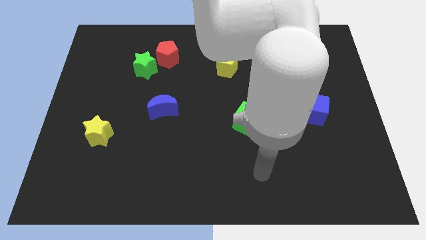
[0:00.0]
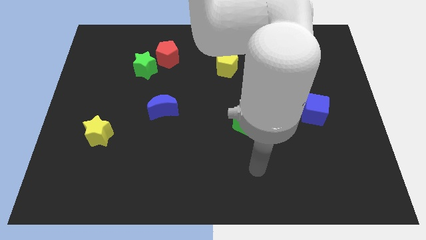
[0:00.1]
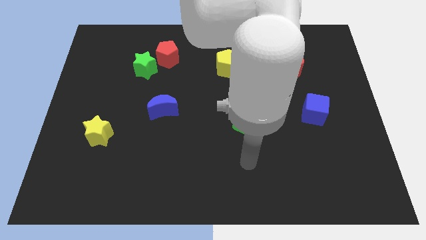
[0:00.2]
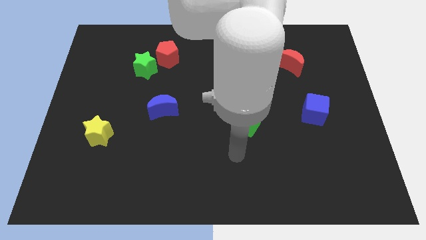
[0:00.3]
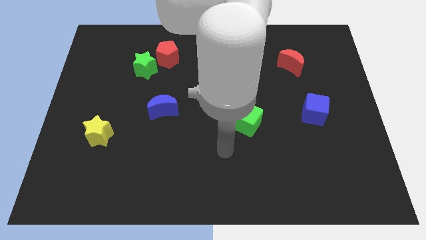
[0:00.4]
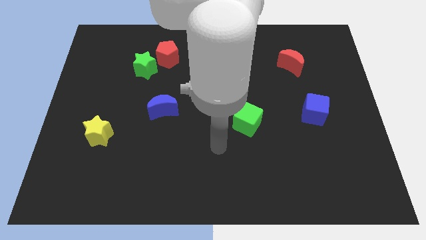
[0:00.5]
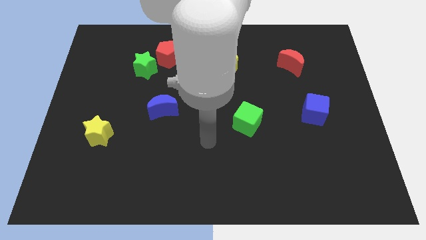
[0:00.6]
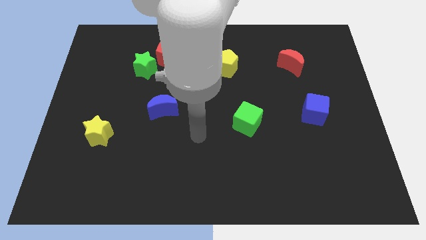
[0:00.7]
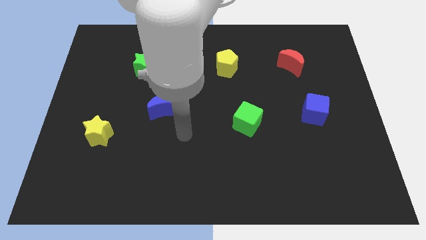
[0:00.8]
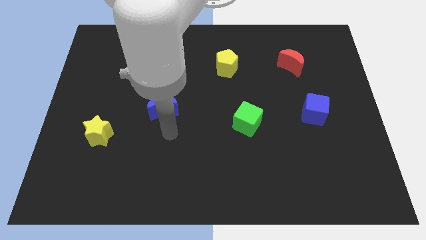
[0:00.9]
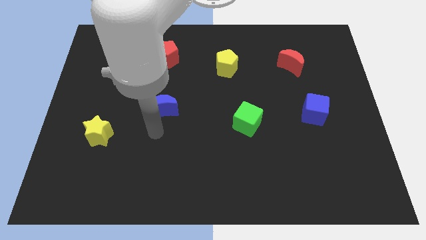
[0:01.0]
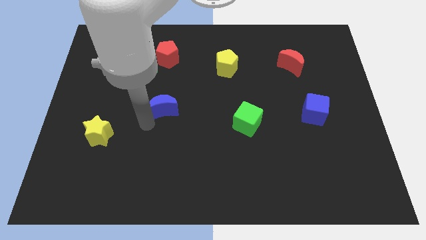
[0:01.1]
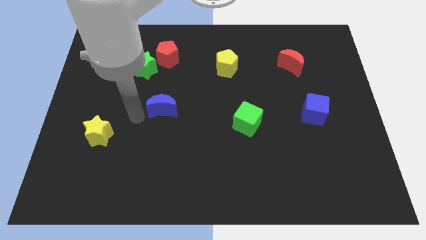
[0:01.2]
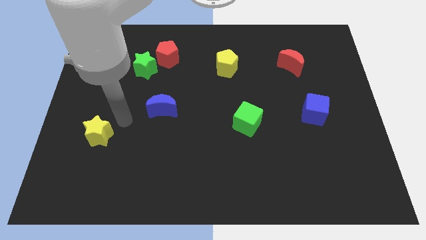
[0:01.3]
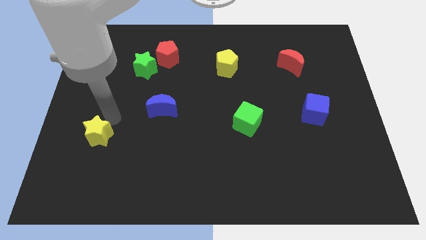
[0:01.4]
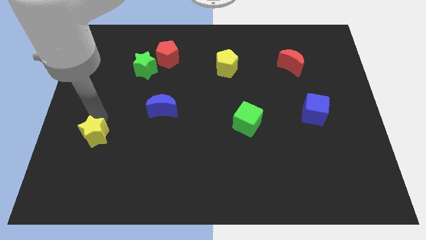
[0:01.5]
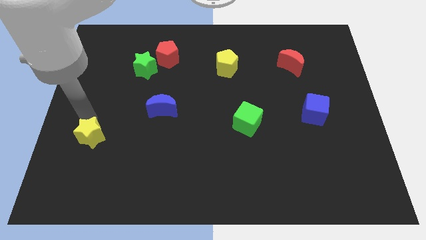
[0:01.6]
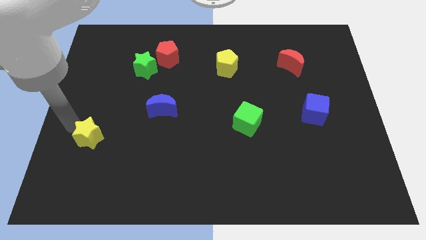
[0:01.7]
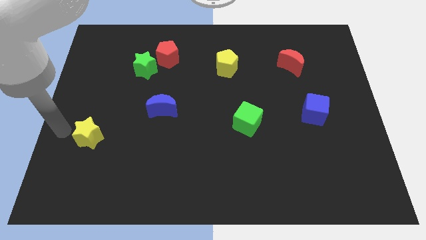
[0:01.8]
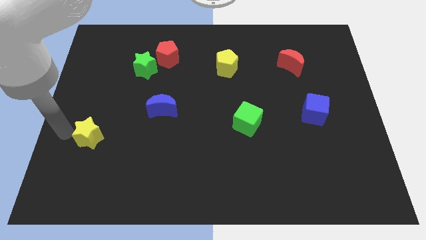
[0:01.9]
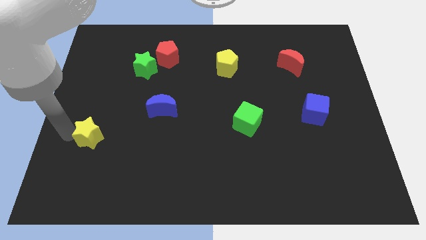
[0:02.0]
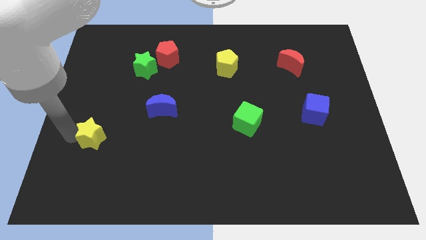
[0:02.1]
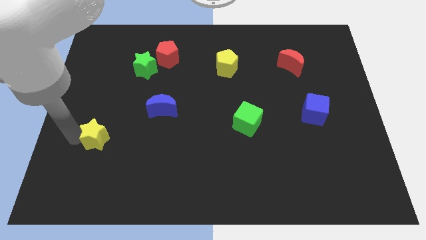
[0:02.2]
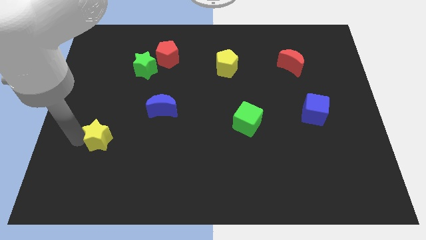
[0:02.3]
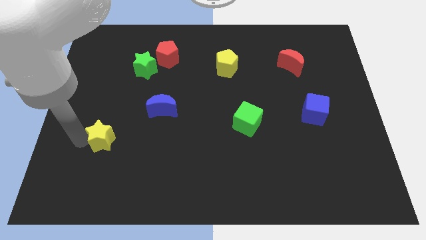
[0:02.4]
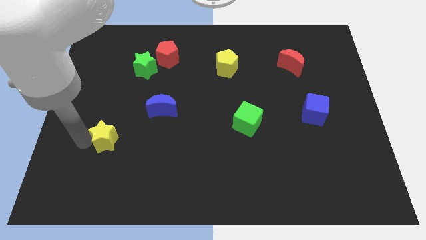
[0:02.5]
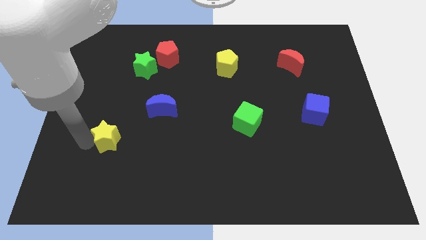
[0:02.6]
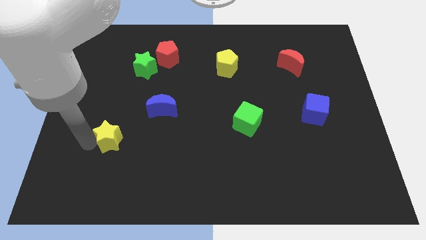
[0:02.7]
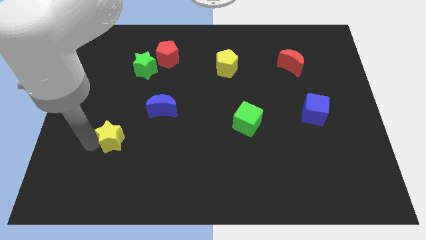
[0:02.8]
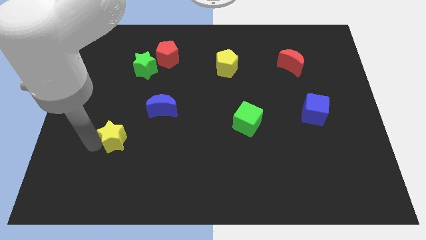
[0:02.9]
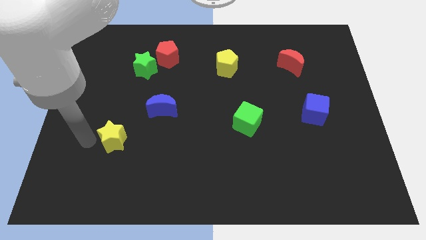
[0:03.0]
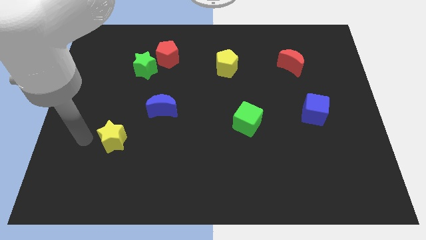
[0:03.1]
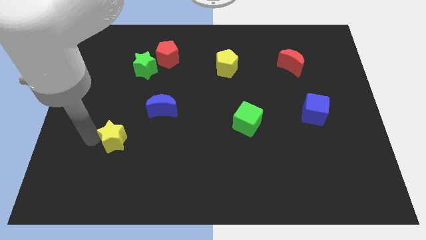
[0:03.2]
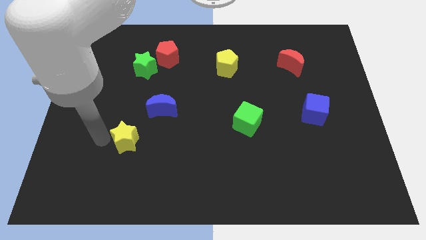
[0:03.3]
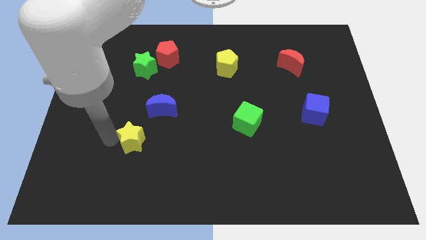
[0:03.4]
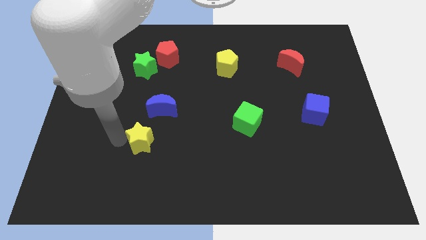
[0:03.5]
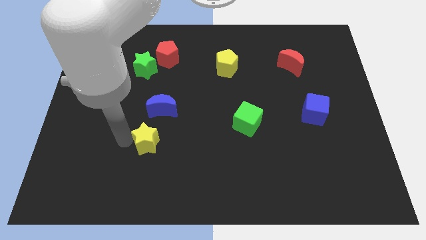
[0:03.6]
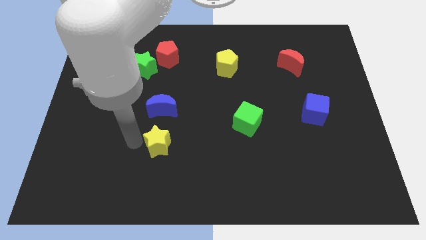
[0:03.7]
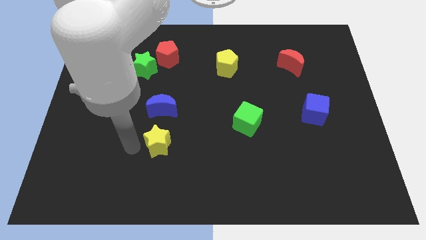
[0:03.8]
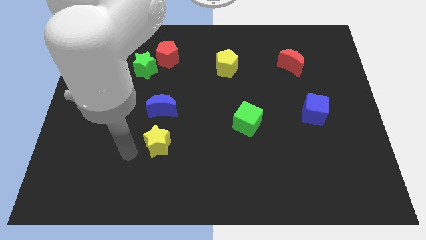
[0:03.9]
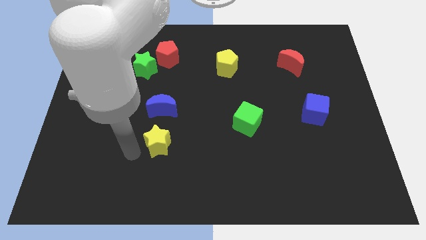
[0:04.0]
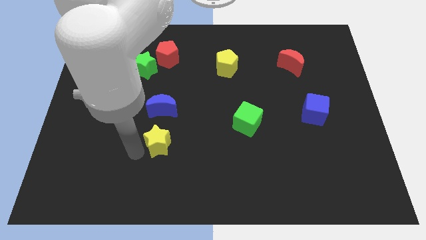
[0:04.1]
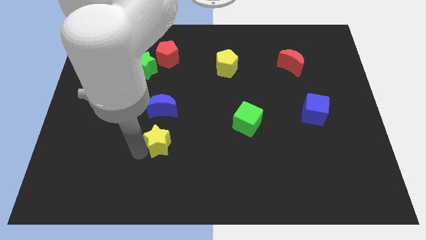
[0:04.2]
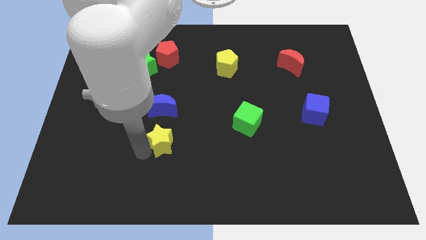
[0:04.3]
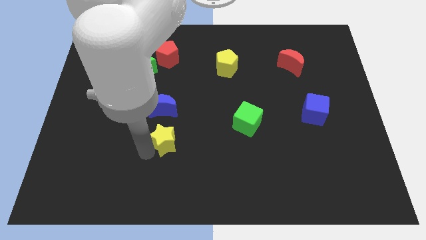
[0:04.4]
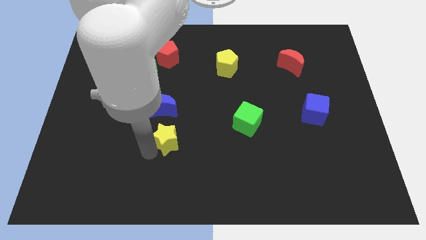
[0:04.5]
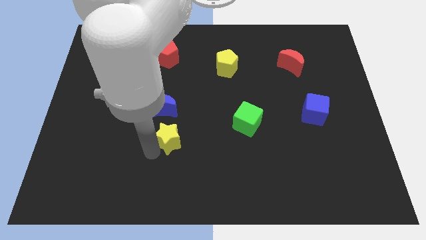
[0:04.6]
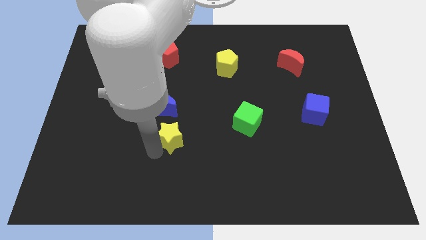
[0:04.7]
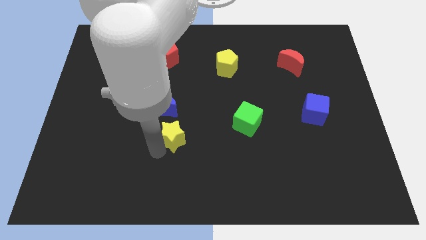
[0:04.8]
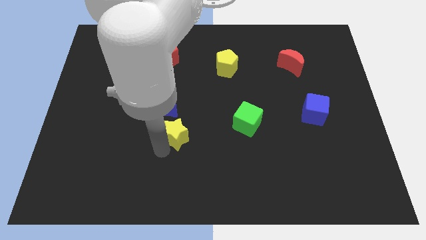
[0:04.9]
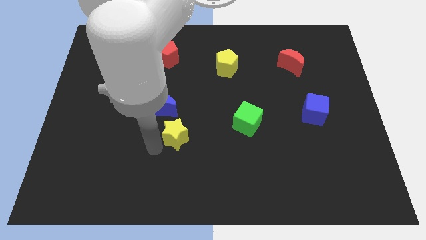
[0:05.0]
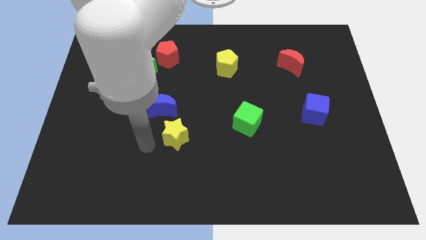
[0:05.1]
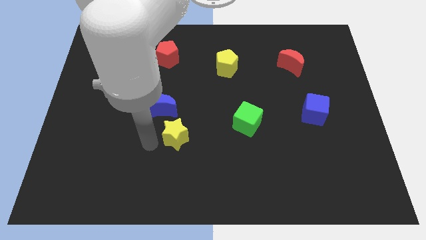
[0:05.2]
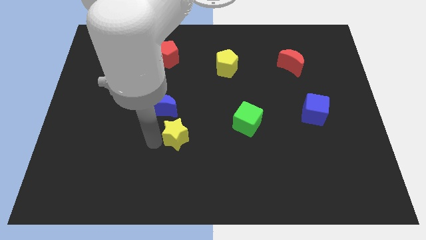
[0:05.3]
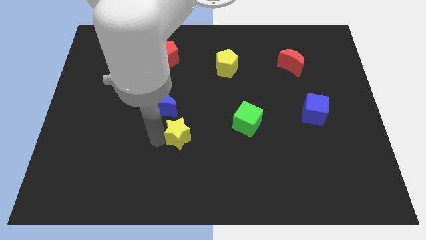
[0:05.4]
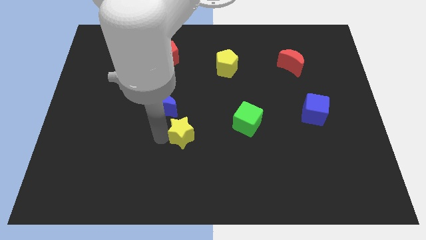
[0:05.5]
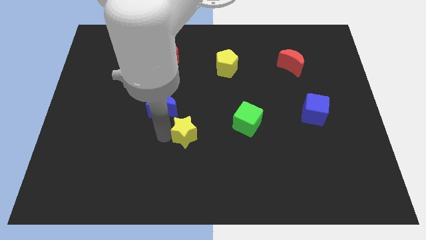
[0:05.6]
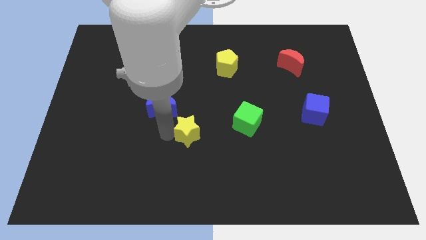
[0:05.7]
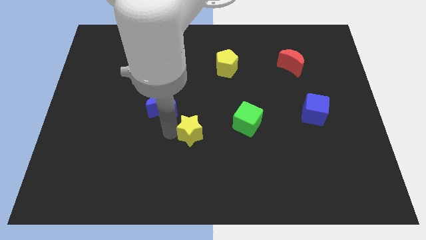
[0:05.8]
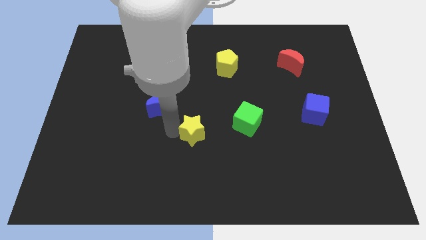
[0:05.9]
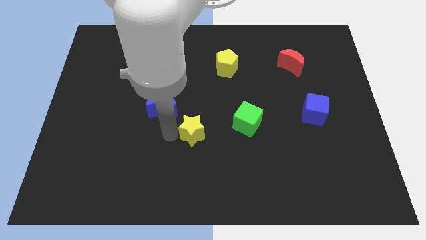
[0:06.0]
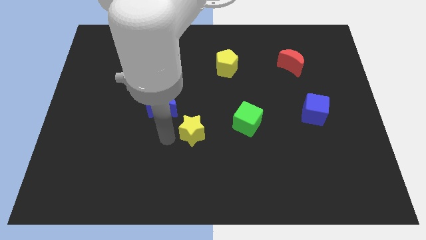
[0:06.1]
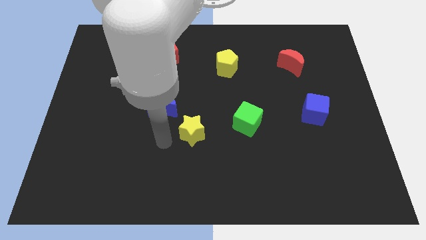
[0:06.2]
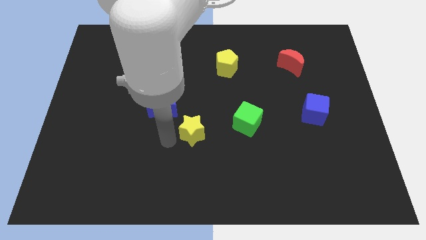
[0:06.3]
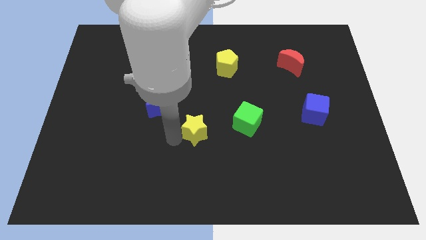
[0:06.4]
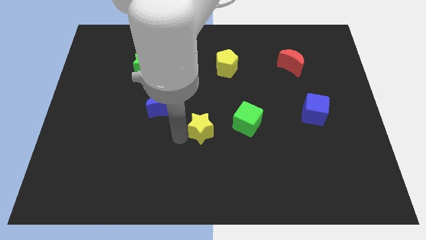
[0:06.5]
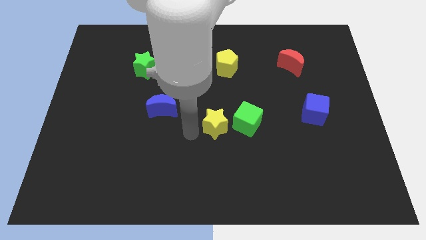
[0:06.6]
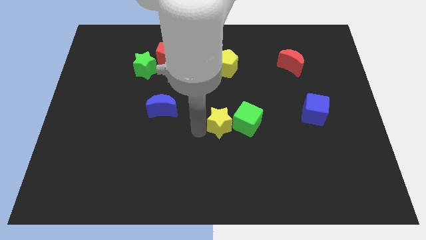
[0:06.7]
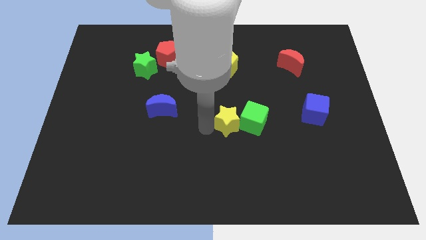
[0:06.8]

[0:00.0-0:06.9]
move the yellow star next to the green cube
